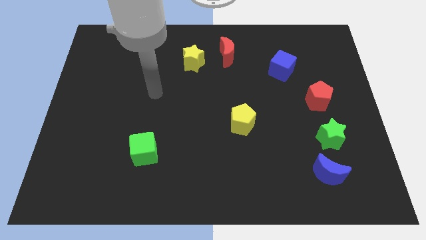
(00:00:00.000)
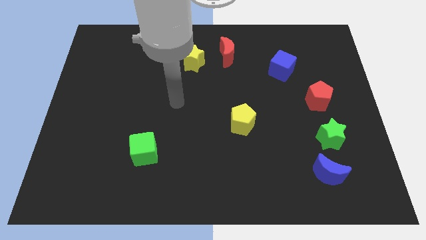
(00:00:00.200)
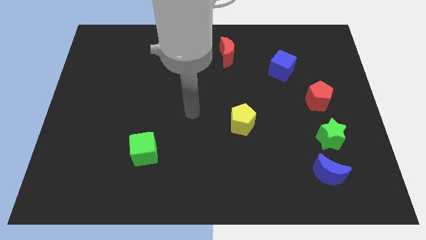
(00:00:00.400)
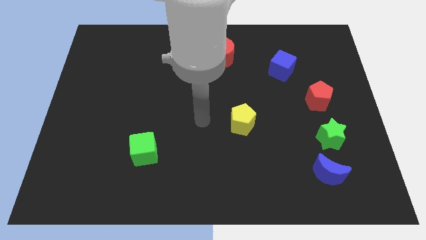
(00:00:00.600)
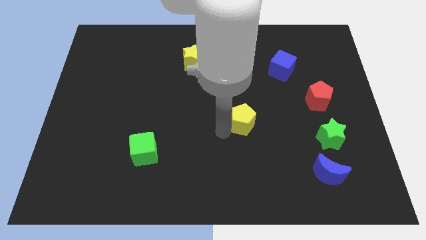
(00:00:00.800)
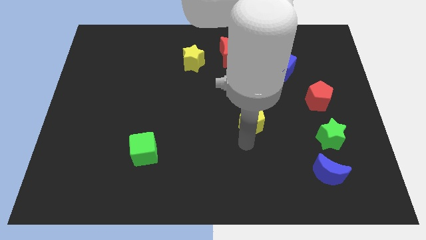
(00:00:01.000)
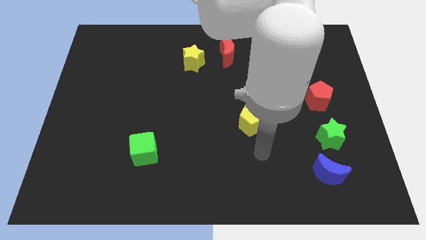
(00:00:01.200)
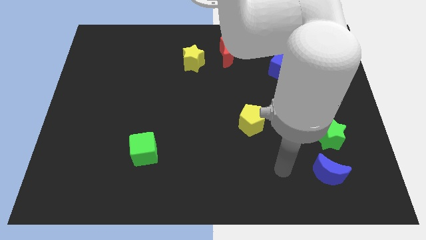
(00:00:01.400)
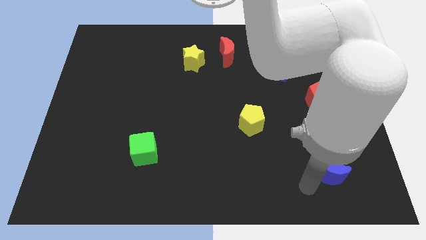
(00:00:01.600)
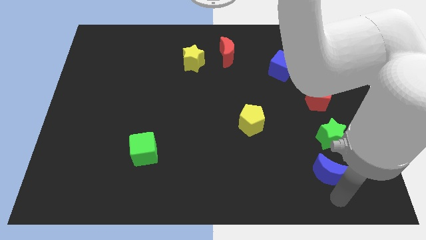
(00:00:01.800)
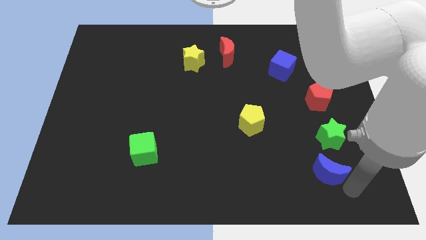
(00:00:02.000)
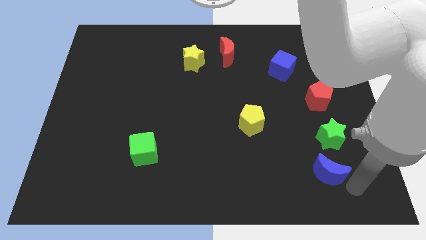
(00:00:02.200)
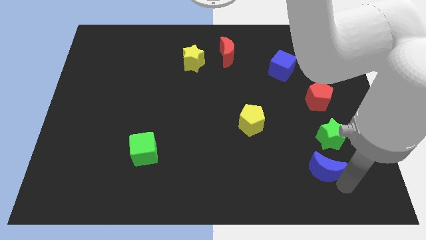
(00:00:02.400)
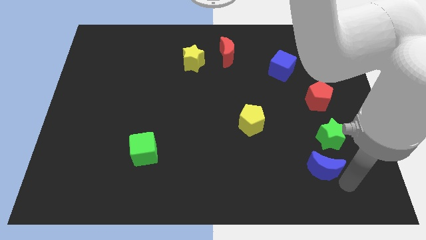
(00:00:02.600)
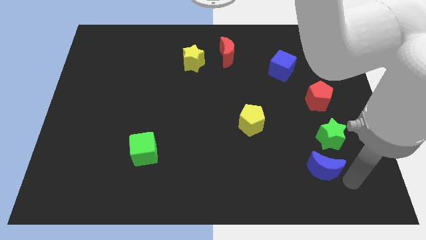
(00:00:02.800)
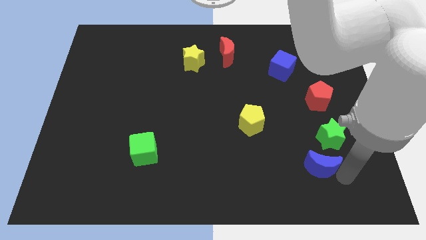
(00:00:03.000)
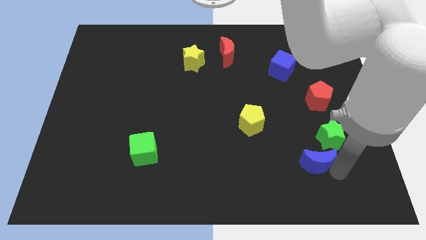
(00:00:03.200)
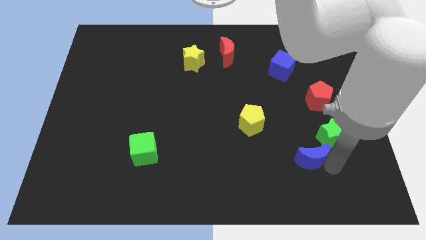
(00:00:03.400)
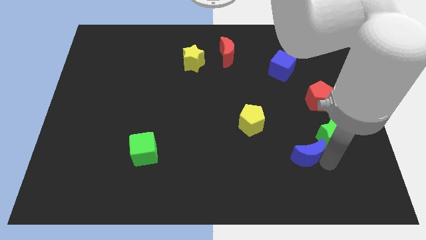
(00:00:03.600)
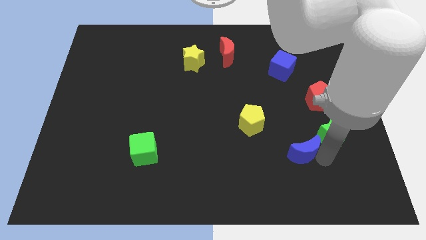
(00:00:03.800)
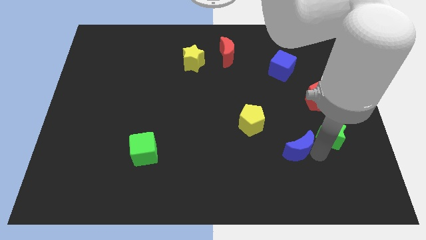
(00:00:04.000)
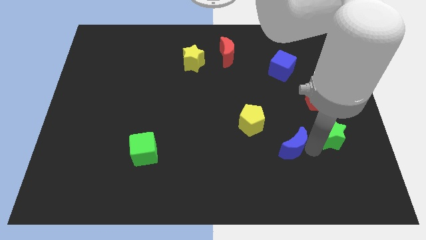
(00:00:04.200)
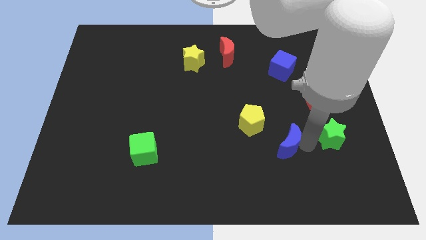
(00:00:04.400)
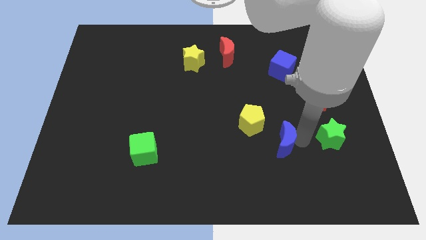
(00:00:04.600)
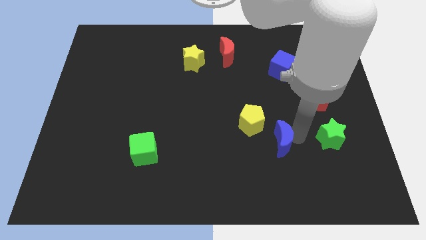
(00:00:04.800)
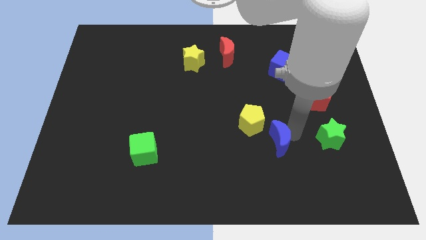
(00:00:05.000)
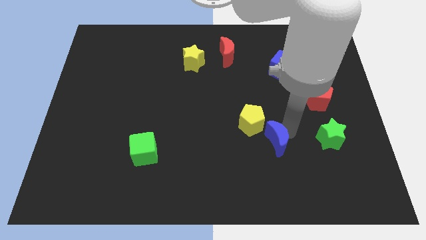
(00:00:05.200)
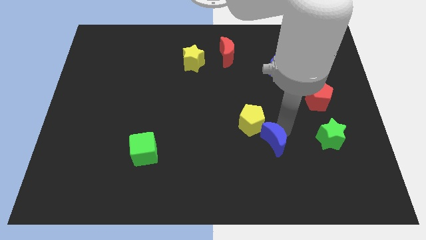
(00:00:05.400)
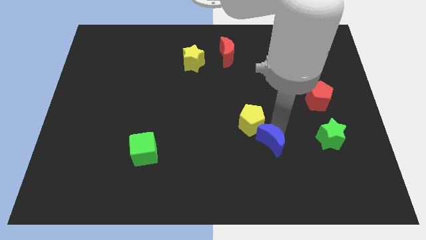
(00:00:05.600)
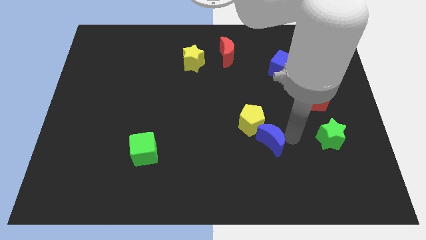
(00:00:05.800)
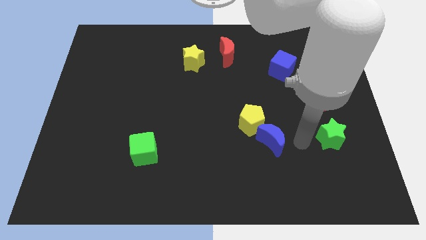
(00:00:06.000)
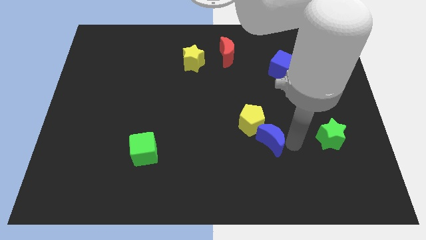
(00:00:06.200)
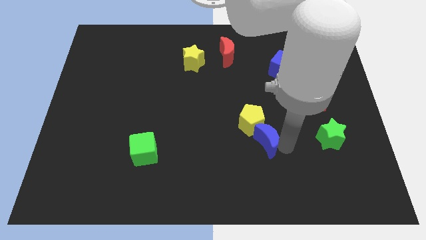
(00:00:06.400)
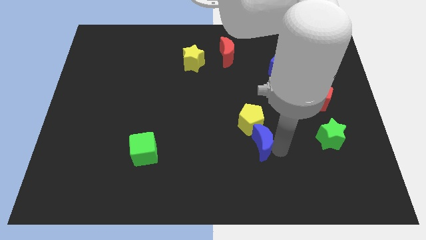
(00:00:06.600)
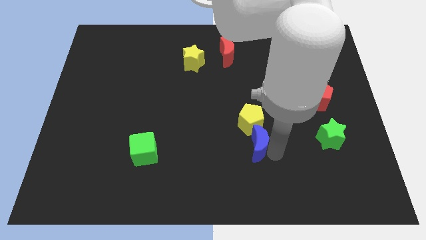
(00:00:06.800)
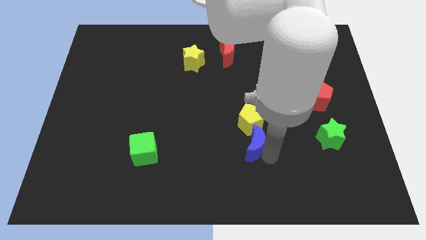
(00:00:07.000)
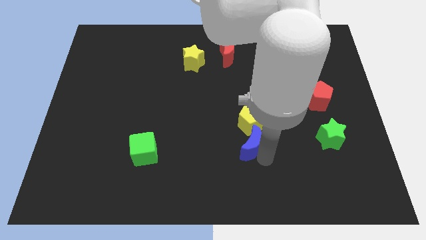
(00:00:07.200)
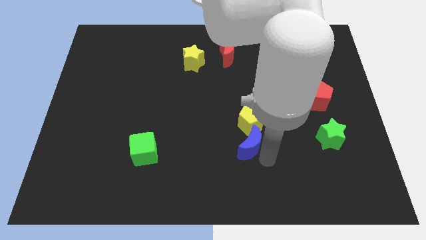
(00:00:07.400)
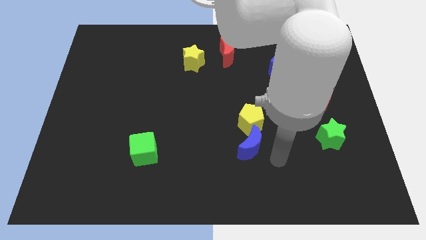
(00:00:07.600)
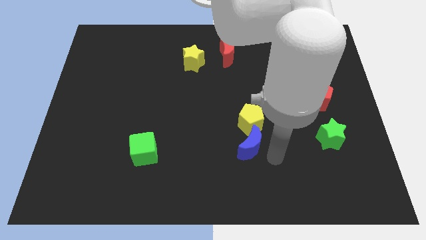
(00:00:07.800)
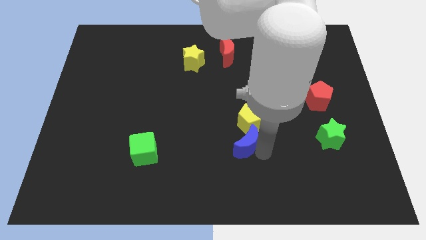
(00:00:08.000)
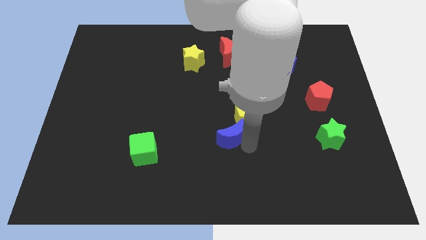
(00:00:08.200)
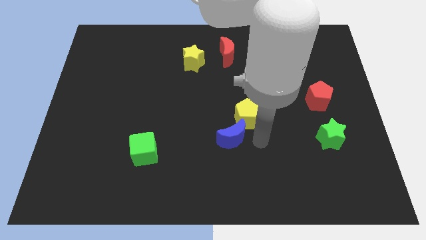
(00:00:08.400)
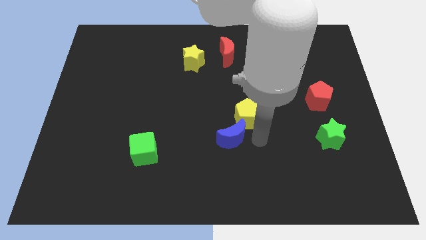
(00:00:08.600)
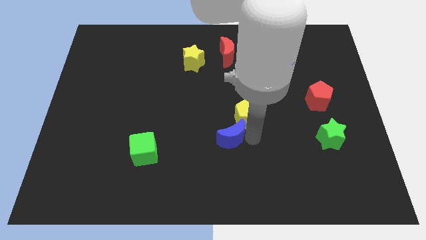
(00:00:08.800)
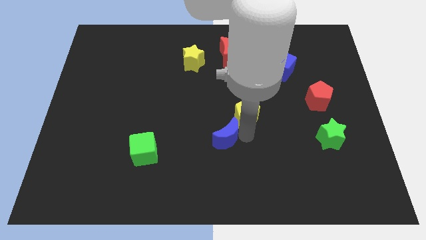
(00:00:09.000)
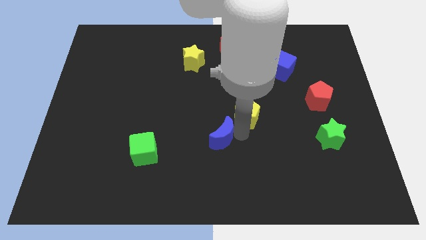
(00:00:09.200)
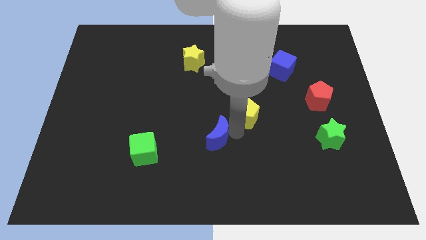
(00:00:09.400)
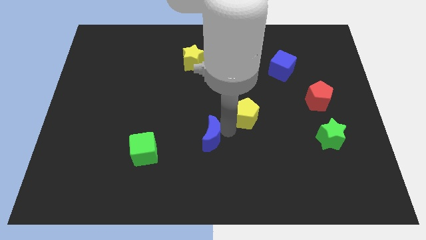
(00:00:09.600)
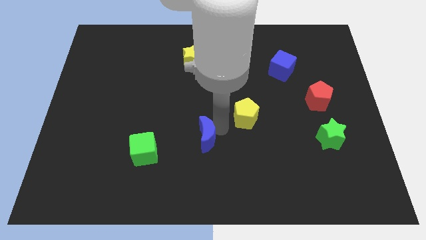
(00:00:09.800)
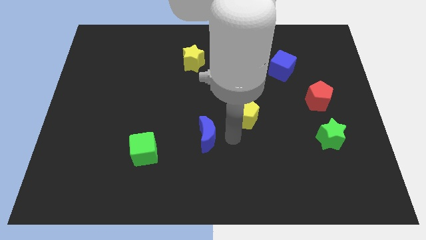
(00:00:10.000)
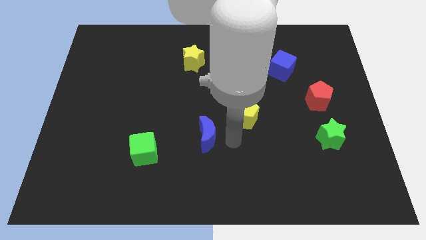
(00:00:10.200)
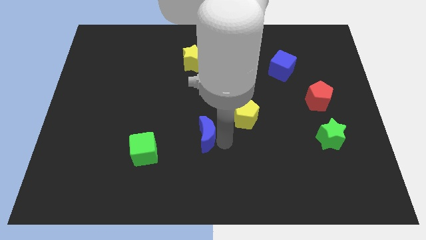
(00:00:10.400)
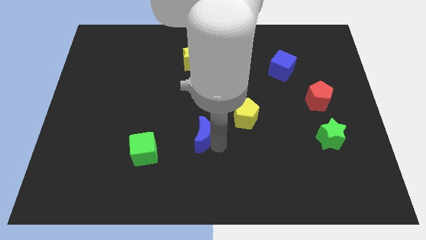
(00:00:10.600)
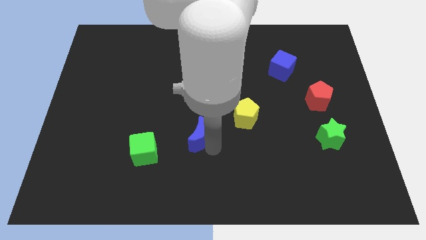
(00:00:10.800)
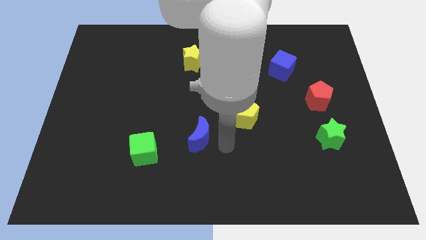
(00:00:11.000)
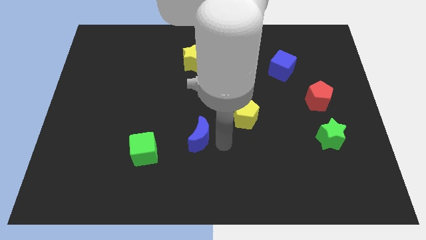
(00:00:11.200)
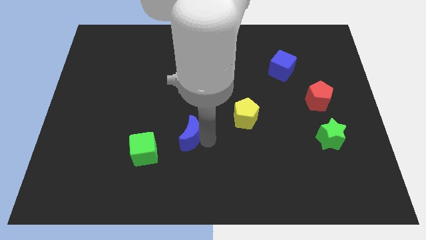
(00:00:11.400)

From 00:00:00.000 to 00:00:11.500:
slide the blue moon to the top right side of the green cube

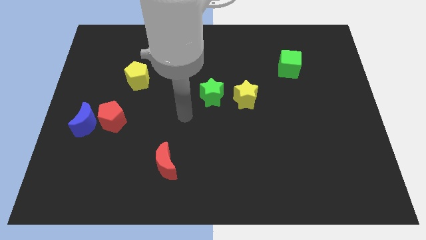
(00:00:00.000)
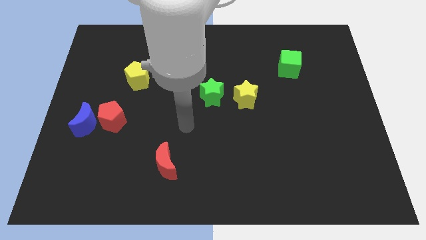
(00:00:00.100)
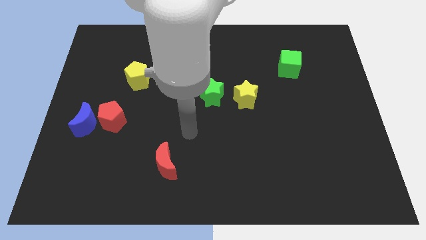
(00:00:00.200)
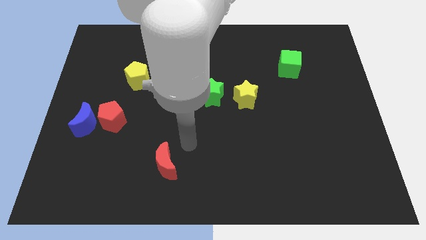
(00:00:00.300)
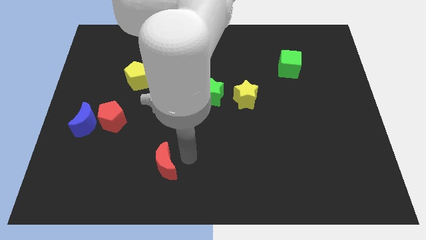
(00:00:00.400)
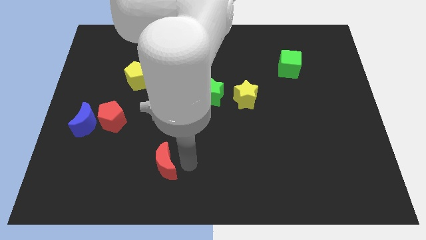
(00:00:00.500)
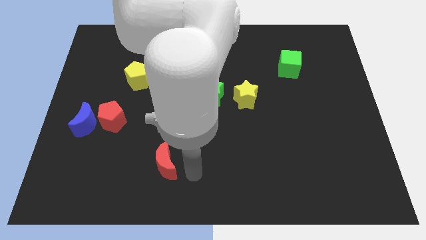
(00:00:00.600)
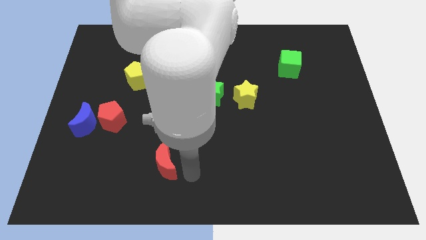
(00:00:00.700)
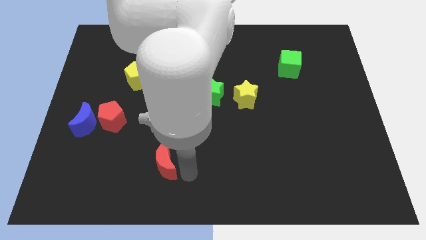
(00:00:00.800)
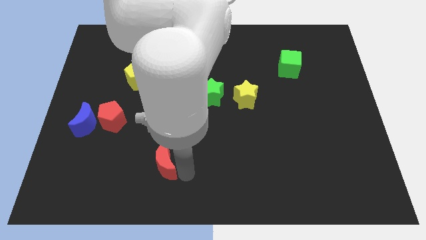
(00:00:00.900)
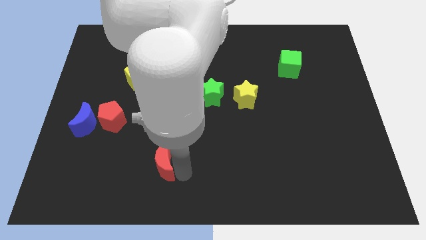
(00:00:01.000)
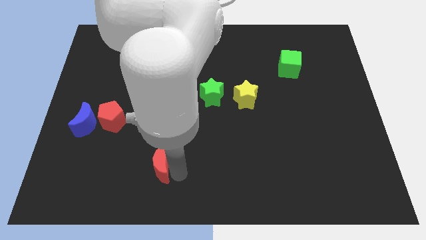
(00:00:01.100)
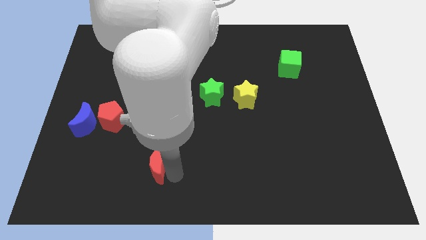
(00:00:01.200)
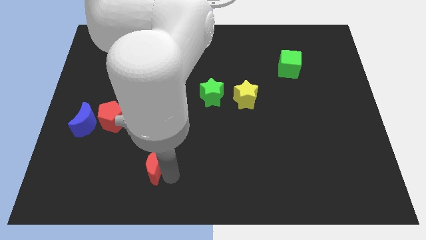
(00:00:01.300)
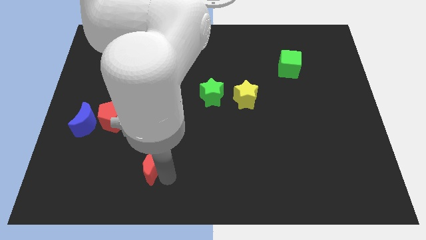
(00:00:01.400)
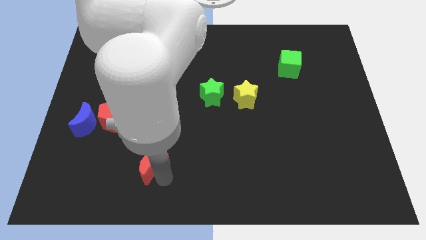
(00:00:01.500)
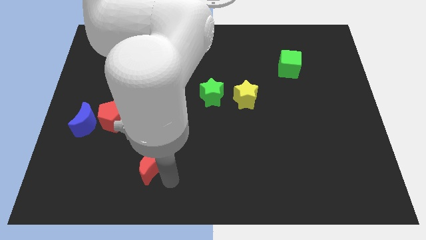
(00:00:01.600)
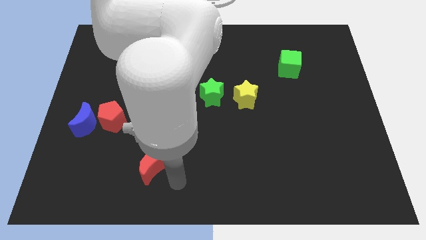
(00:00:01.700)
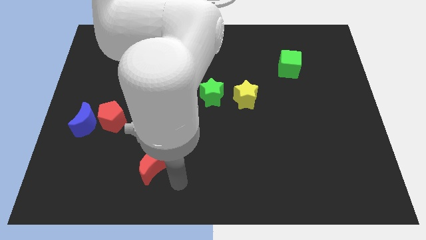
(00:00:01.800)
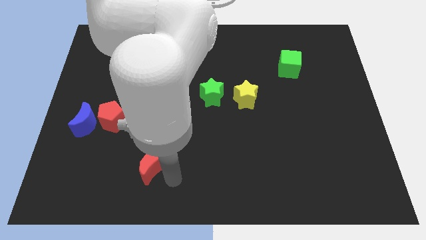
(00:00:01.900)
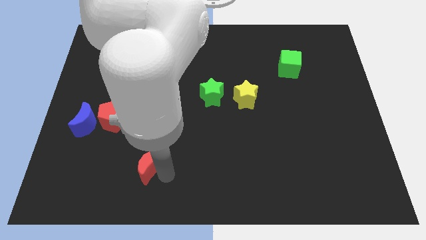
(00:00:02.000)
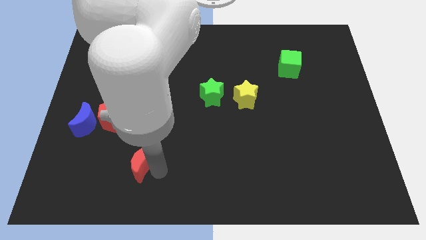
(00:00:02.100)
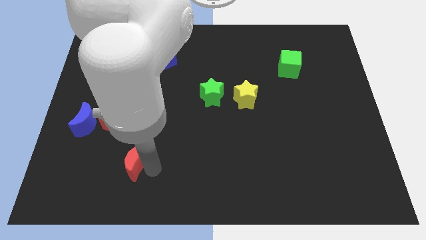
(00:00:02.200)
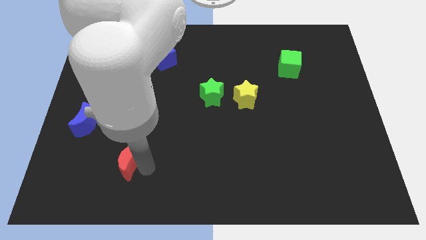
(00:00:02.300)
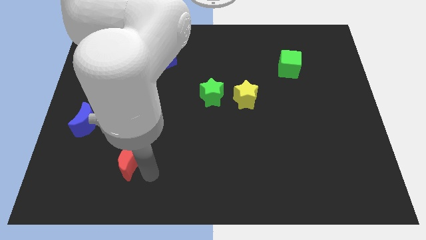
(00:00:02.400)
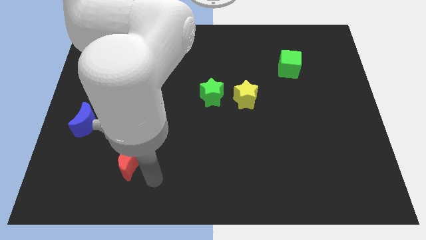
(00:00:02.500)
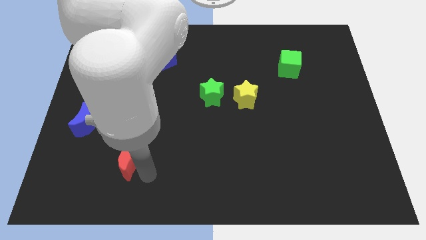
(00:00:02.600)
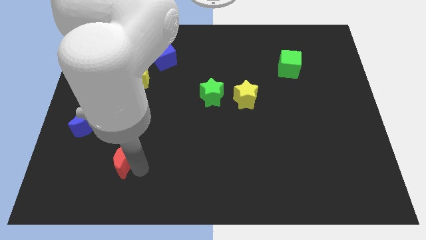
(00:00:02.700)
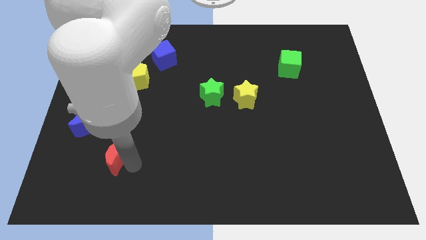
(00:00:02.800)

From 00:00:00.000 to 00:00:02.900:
push the red moon to the bottom right side of the blue moon
